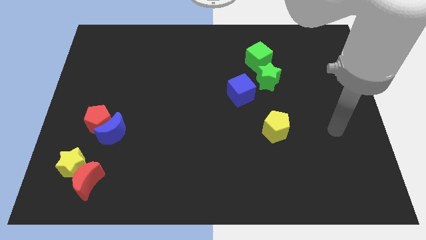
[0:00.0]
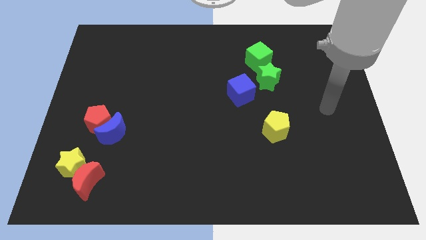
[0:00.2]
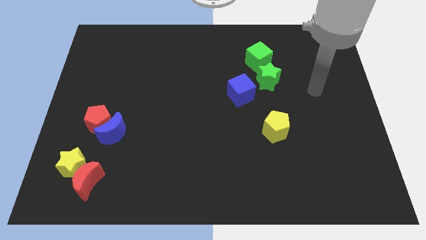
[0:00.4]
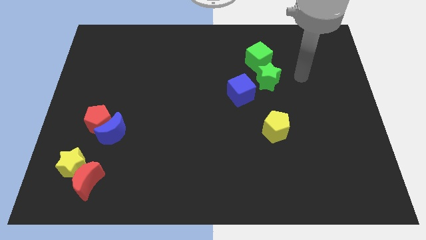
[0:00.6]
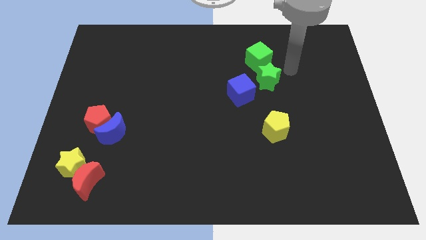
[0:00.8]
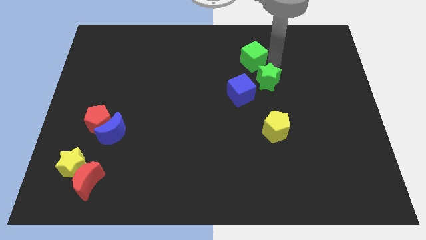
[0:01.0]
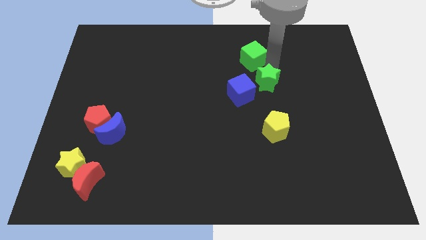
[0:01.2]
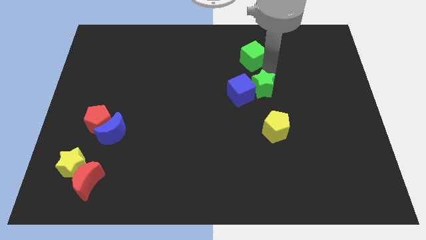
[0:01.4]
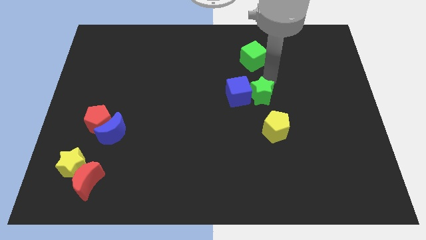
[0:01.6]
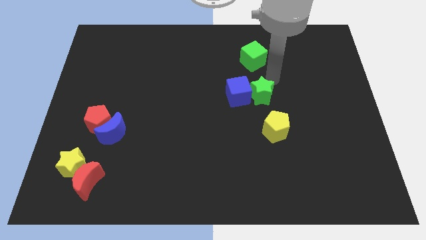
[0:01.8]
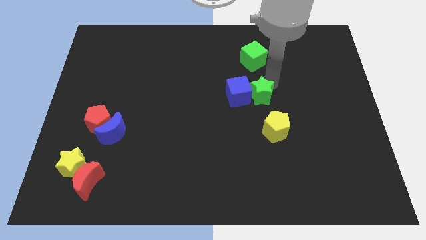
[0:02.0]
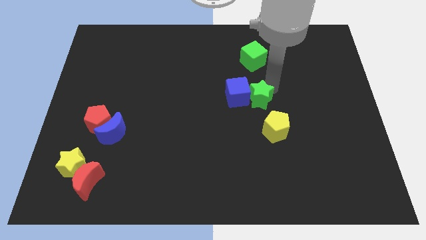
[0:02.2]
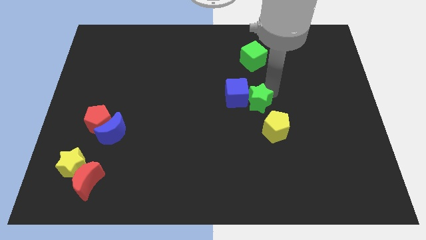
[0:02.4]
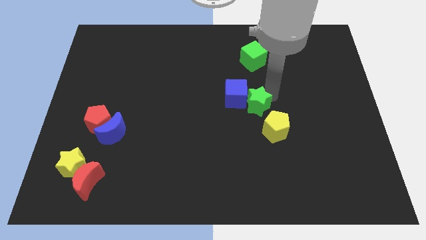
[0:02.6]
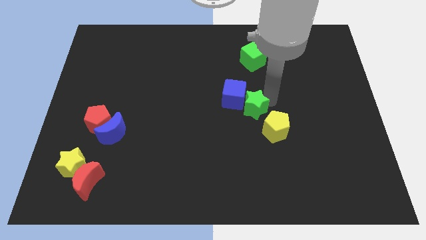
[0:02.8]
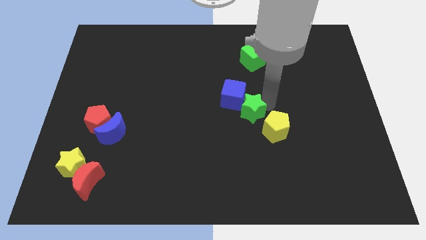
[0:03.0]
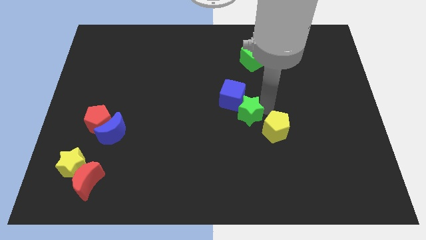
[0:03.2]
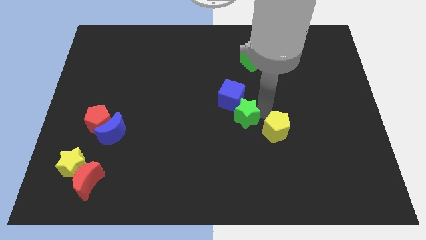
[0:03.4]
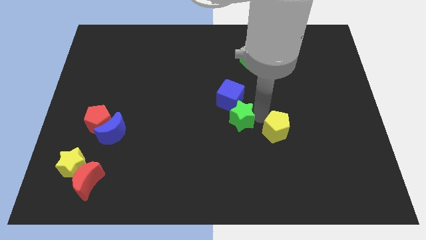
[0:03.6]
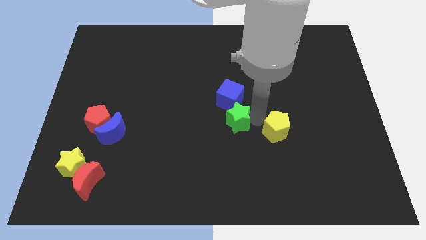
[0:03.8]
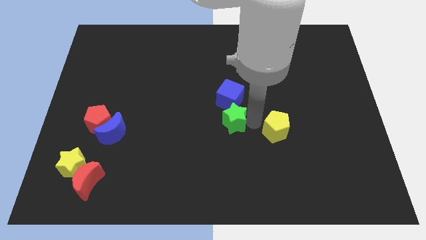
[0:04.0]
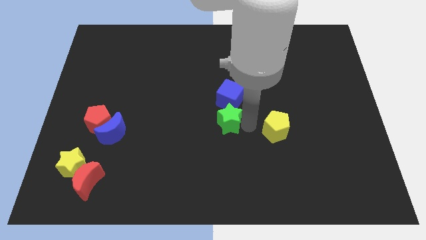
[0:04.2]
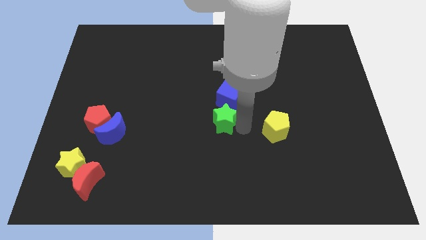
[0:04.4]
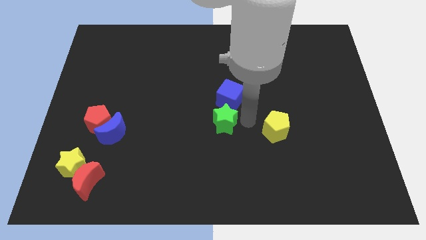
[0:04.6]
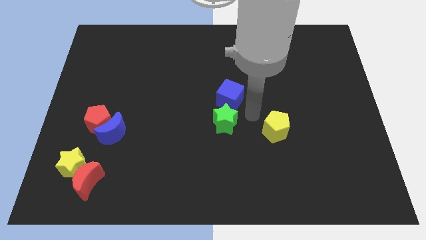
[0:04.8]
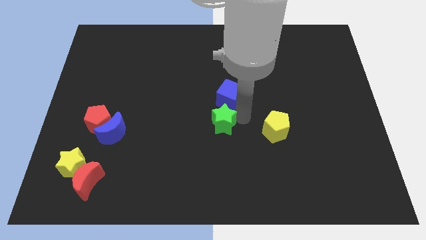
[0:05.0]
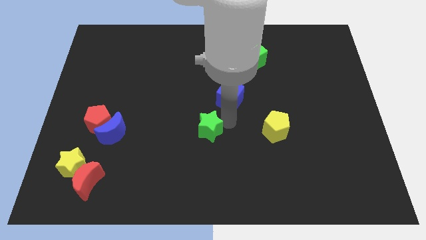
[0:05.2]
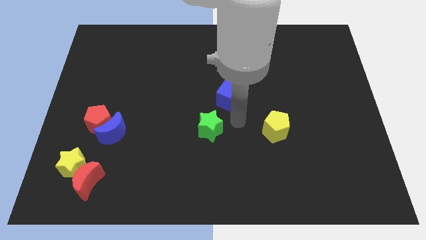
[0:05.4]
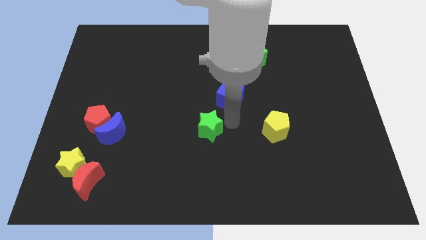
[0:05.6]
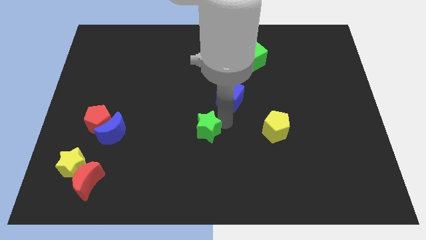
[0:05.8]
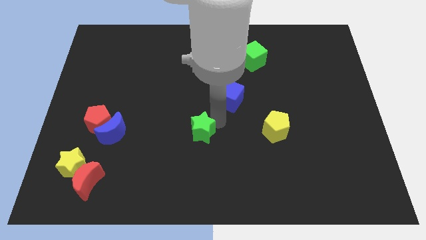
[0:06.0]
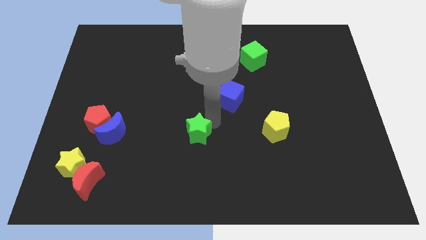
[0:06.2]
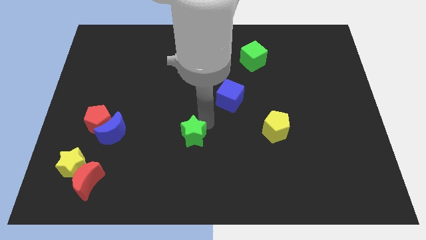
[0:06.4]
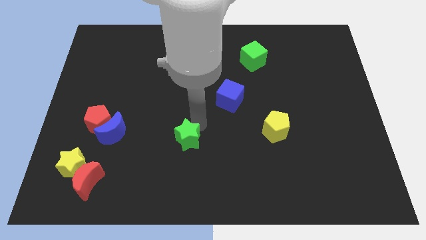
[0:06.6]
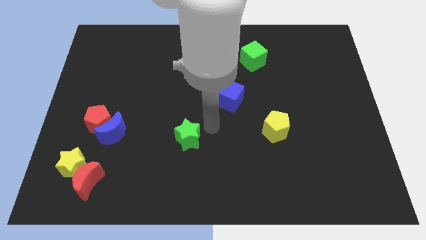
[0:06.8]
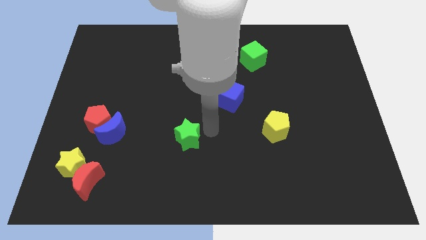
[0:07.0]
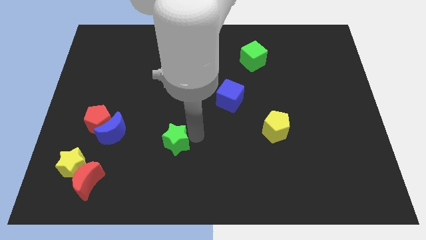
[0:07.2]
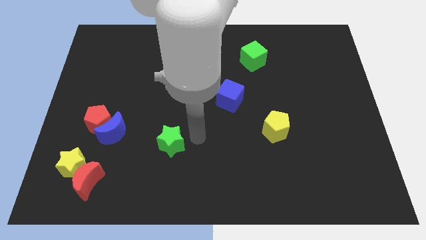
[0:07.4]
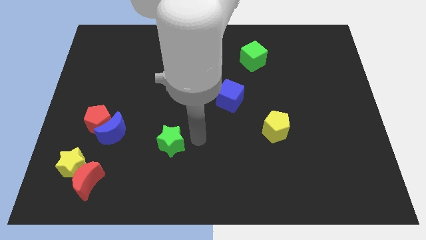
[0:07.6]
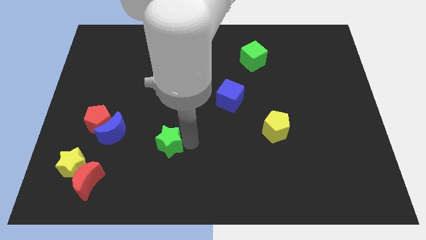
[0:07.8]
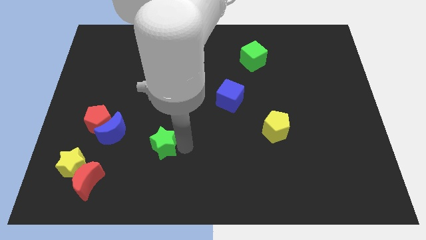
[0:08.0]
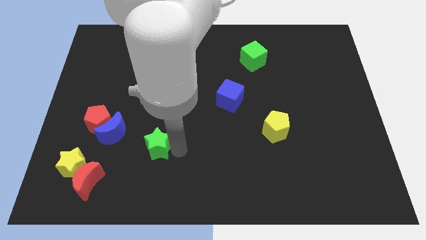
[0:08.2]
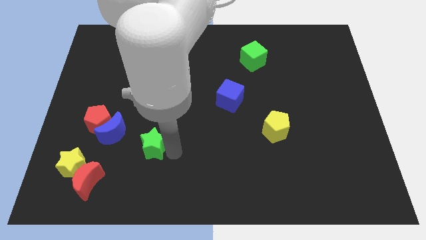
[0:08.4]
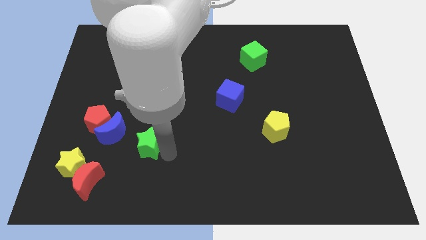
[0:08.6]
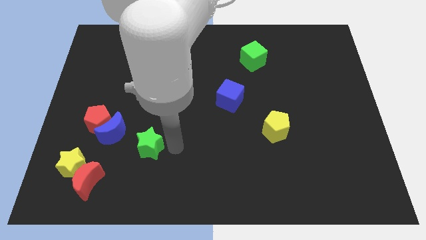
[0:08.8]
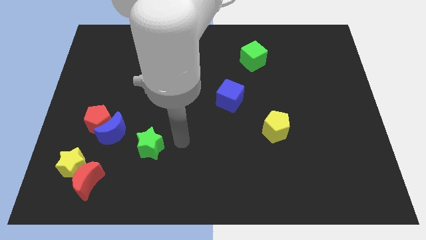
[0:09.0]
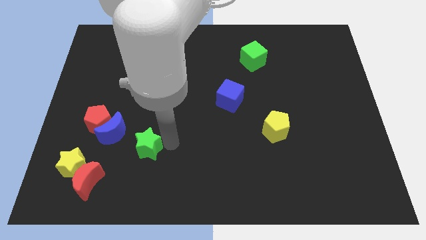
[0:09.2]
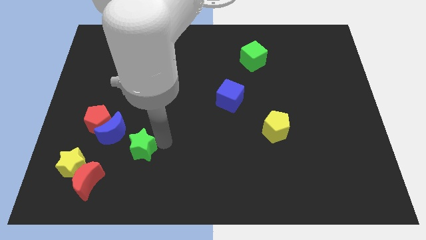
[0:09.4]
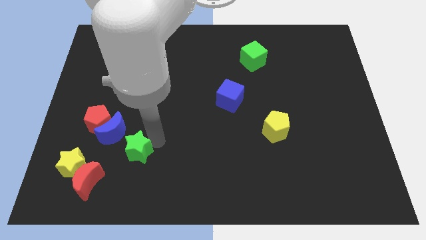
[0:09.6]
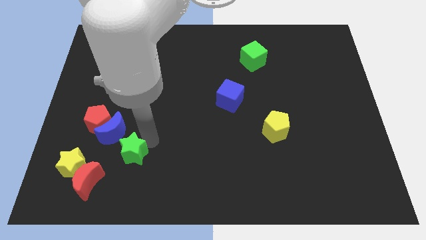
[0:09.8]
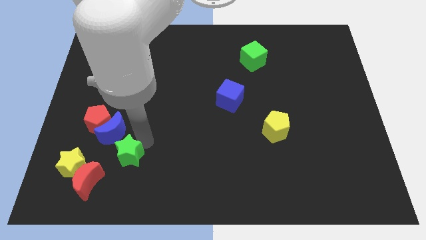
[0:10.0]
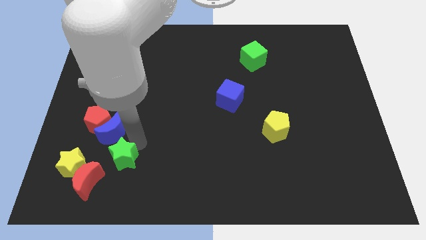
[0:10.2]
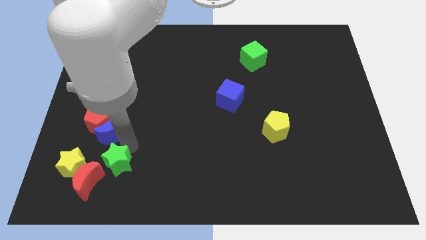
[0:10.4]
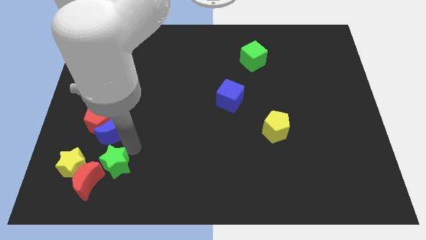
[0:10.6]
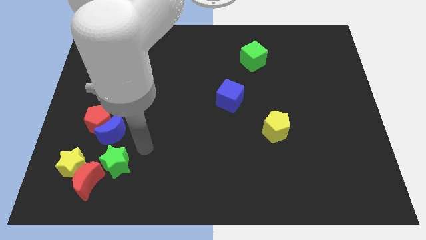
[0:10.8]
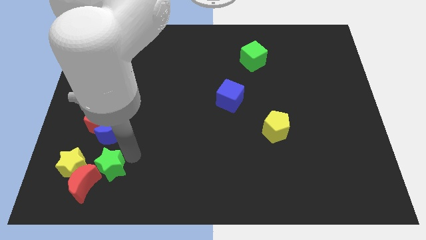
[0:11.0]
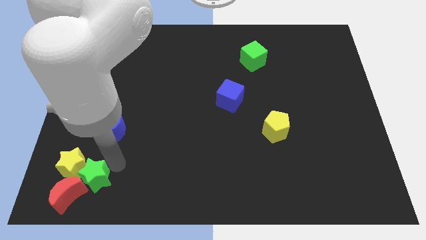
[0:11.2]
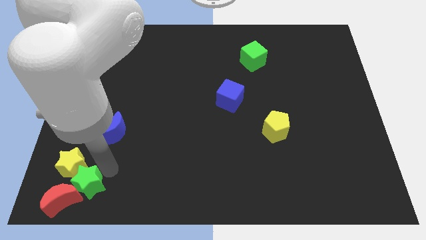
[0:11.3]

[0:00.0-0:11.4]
put the green star close to the red moon

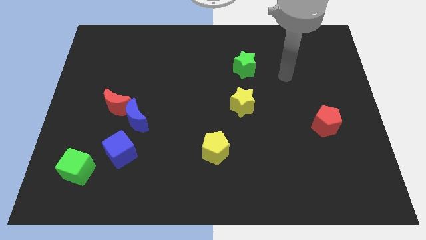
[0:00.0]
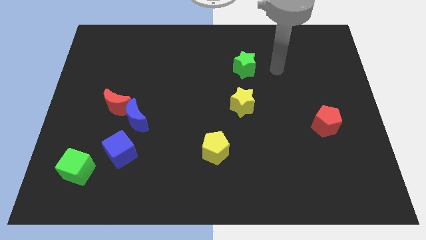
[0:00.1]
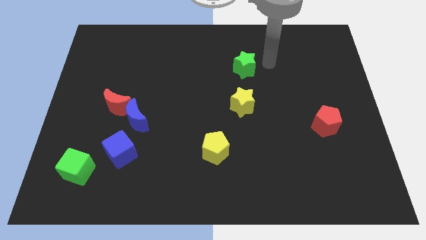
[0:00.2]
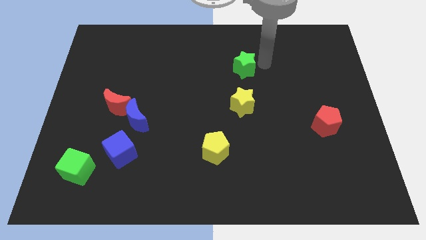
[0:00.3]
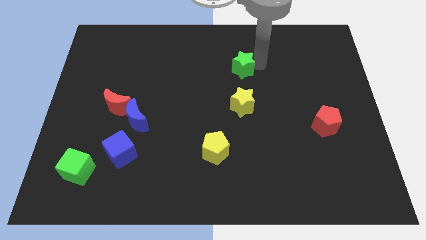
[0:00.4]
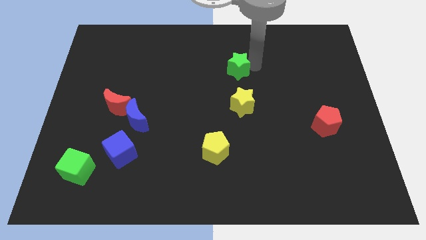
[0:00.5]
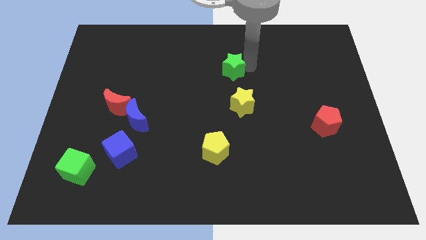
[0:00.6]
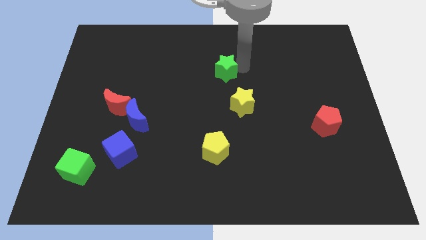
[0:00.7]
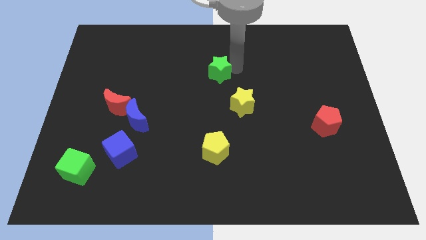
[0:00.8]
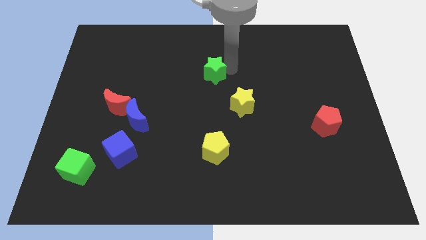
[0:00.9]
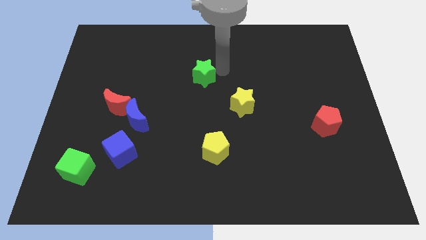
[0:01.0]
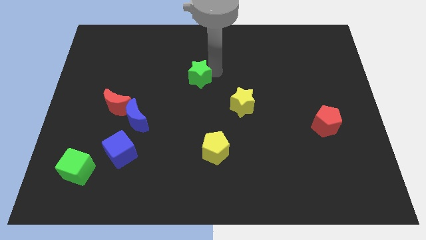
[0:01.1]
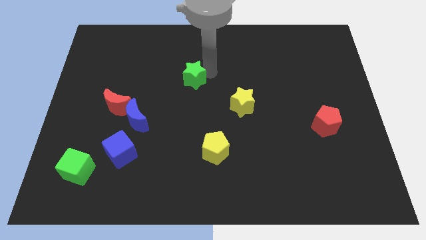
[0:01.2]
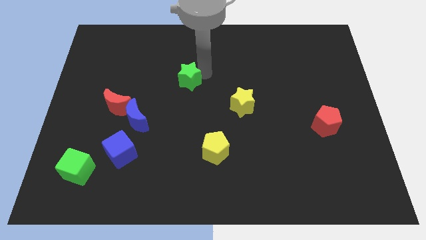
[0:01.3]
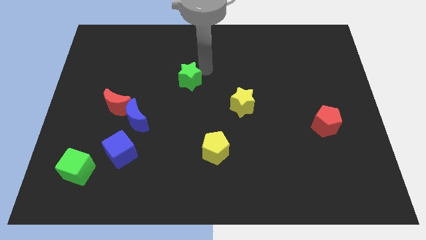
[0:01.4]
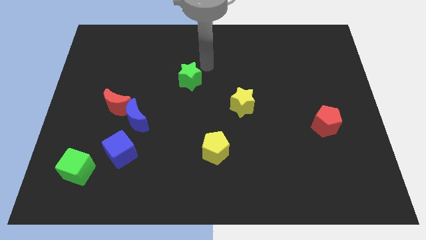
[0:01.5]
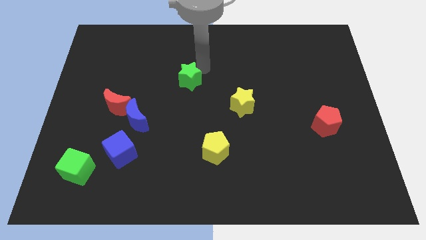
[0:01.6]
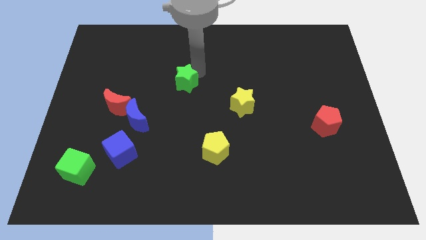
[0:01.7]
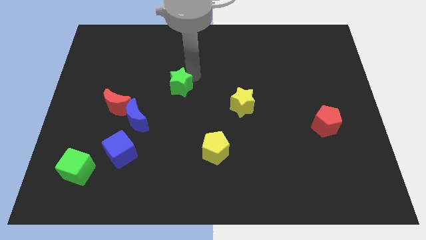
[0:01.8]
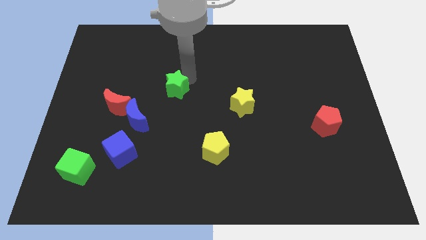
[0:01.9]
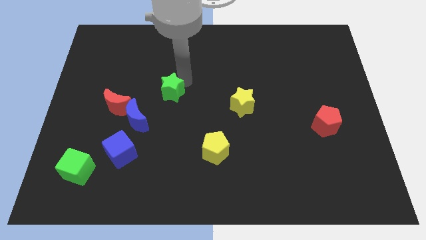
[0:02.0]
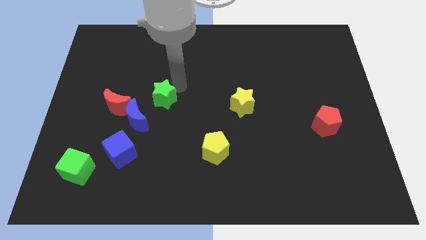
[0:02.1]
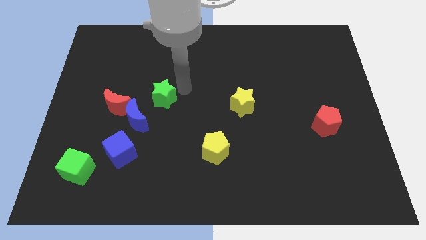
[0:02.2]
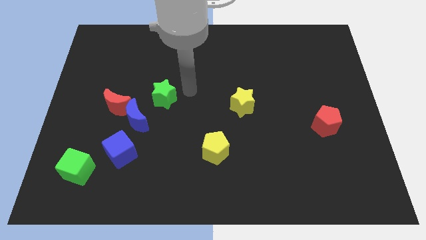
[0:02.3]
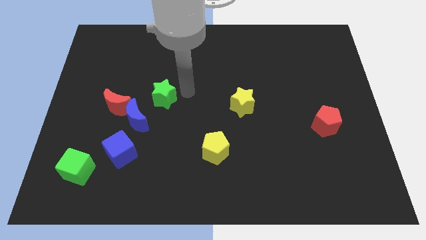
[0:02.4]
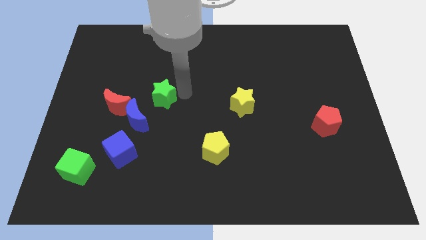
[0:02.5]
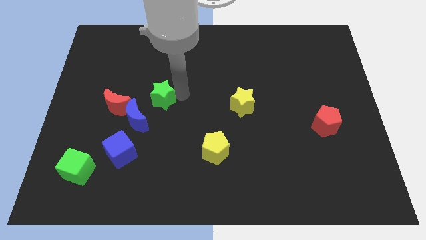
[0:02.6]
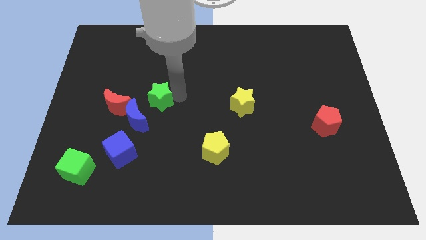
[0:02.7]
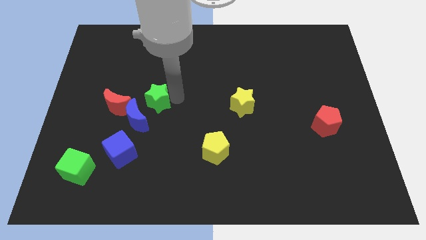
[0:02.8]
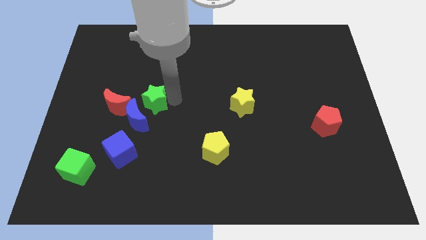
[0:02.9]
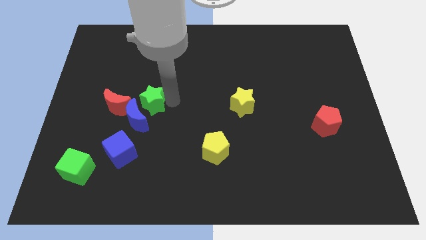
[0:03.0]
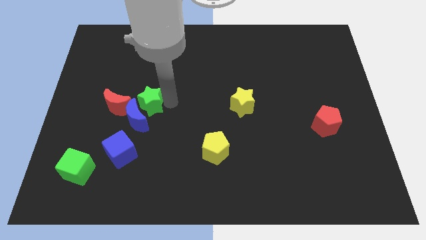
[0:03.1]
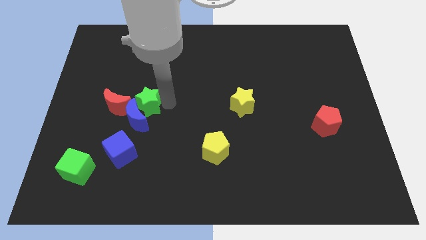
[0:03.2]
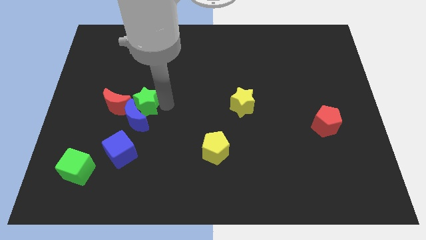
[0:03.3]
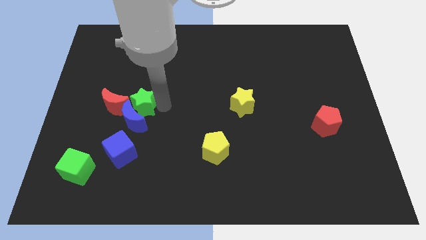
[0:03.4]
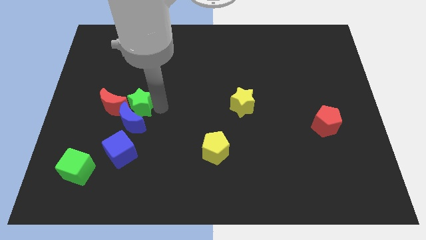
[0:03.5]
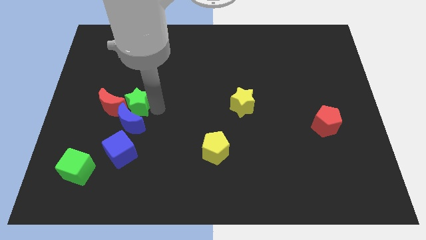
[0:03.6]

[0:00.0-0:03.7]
slide the green star to the red moon
